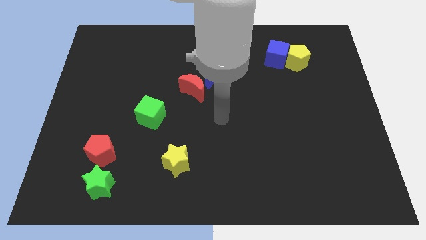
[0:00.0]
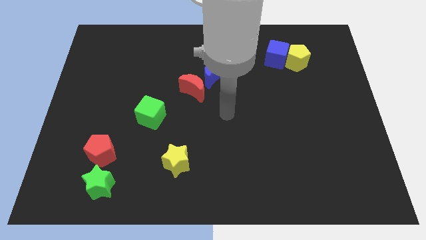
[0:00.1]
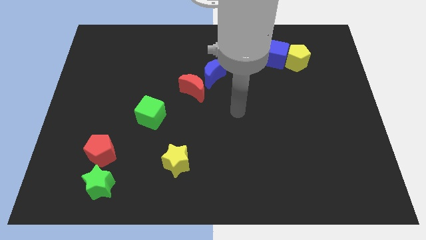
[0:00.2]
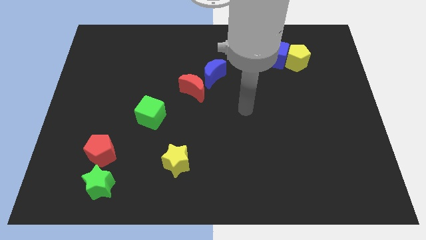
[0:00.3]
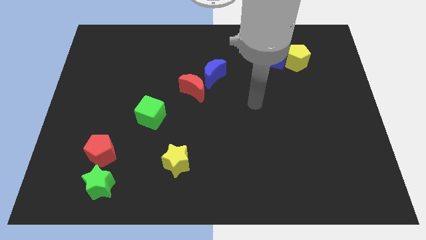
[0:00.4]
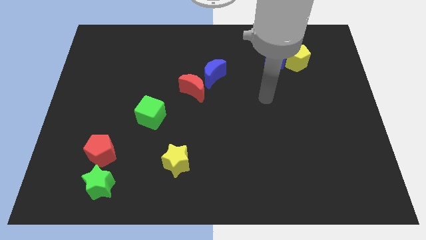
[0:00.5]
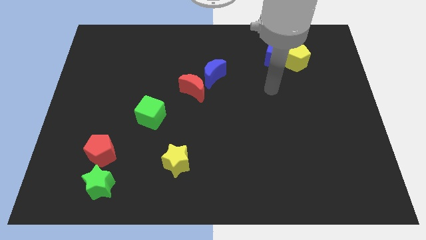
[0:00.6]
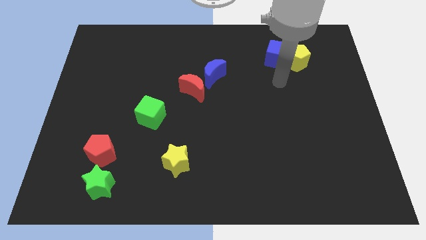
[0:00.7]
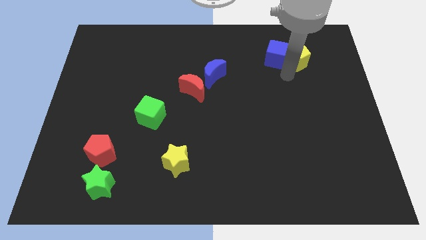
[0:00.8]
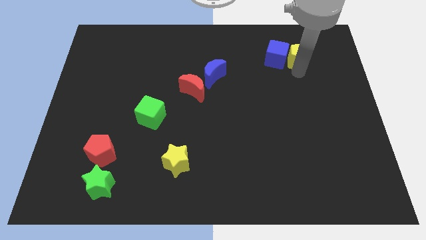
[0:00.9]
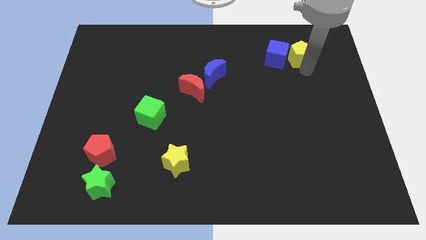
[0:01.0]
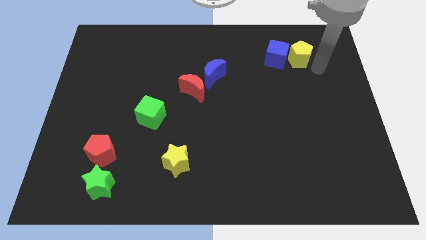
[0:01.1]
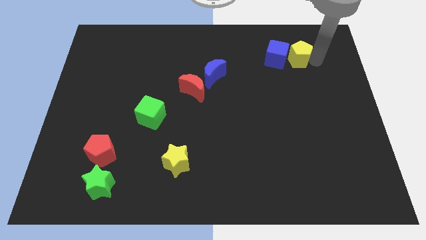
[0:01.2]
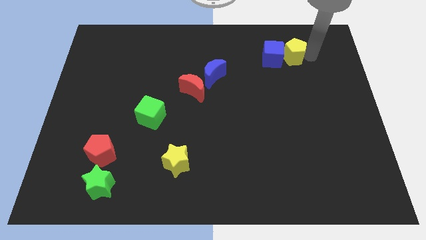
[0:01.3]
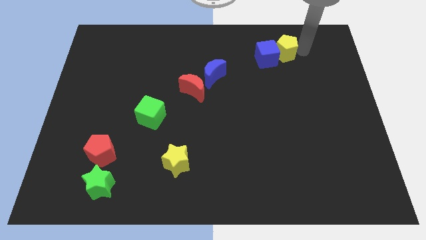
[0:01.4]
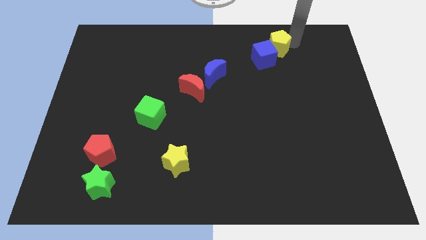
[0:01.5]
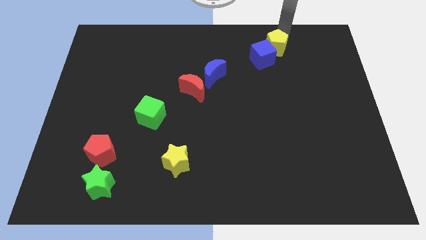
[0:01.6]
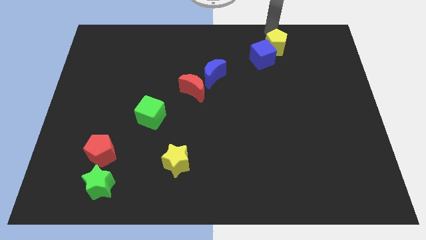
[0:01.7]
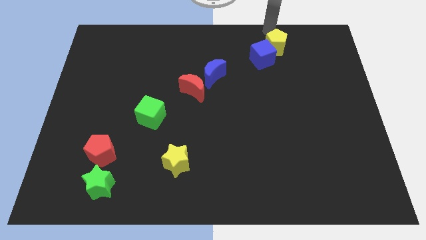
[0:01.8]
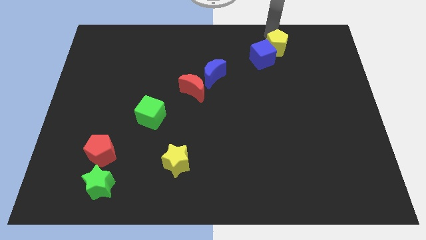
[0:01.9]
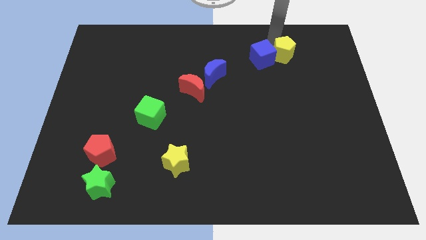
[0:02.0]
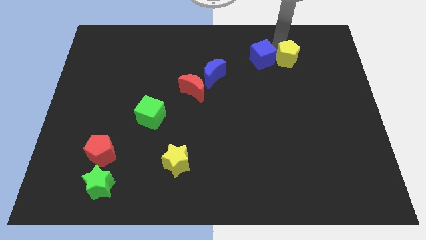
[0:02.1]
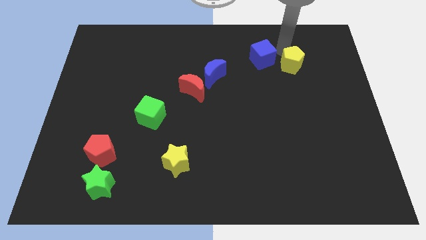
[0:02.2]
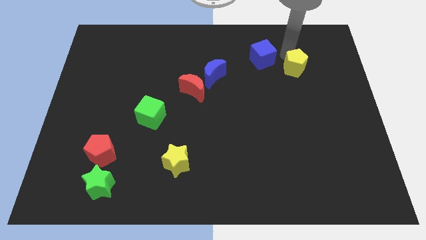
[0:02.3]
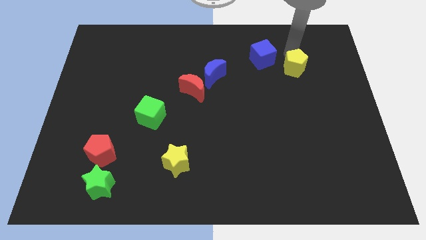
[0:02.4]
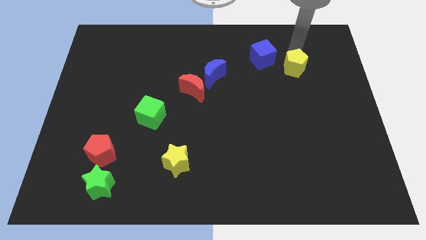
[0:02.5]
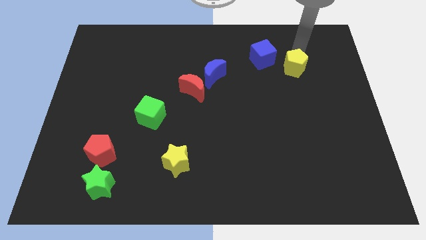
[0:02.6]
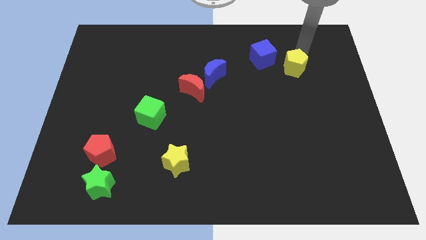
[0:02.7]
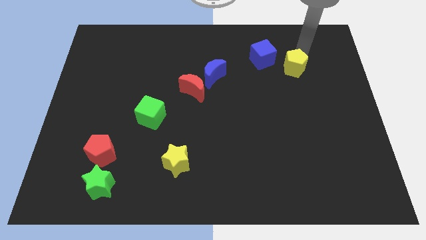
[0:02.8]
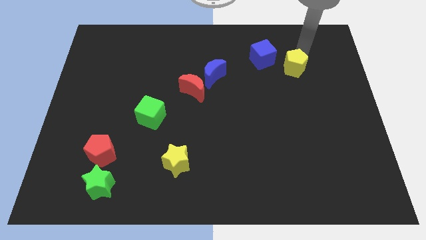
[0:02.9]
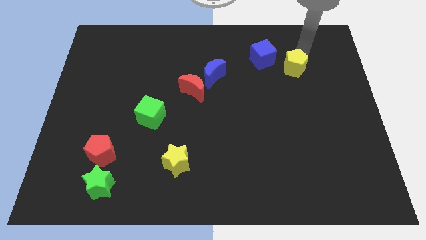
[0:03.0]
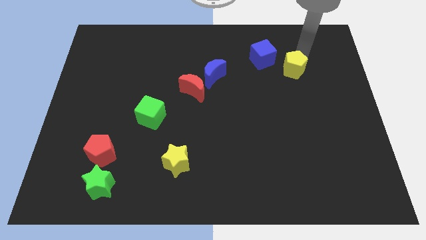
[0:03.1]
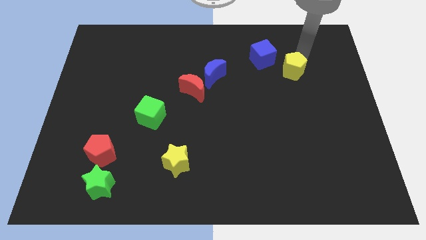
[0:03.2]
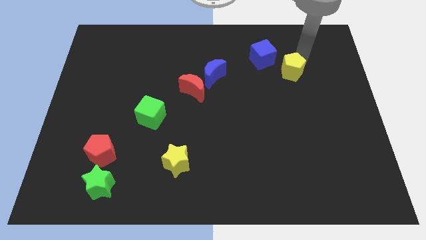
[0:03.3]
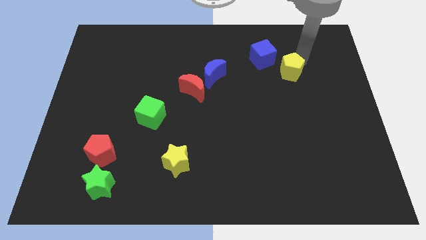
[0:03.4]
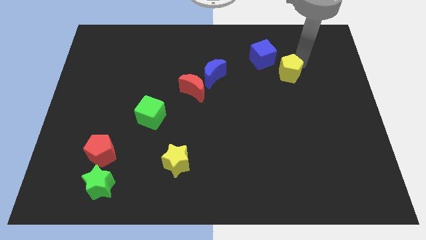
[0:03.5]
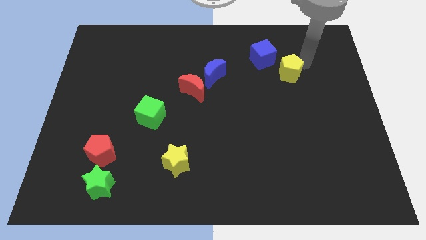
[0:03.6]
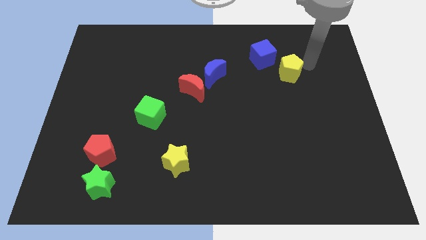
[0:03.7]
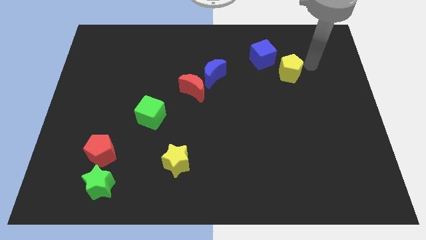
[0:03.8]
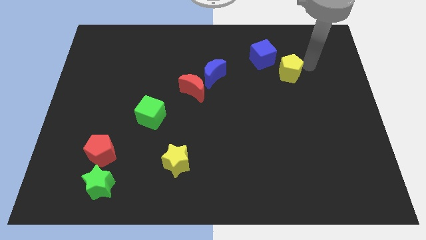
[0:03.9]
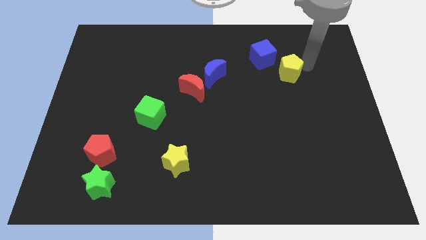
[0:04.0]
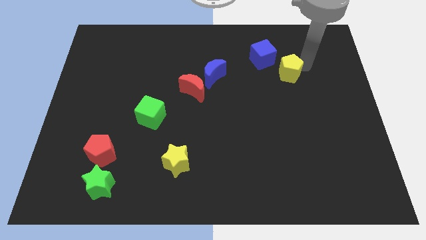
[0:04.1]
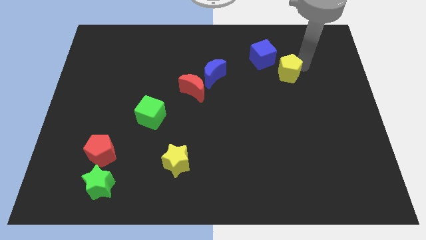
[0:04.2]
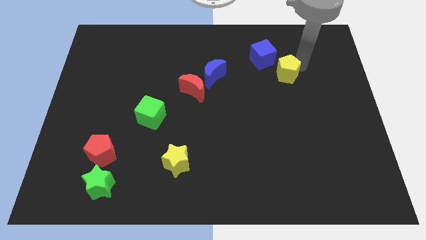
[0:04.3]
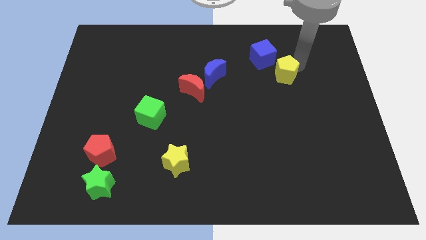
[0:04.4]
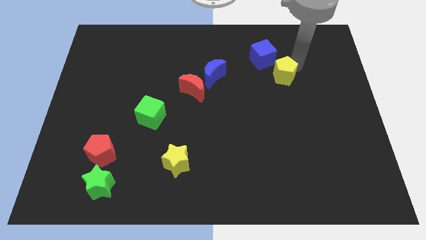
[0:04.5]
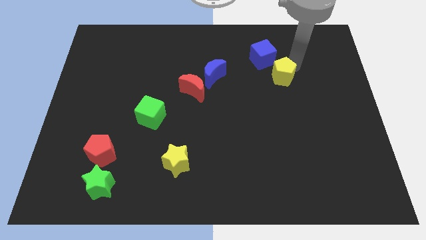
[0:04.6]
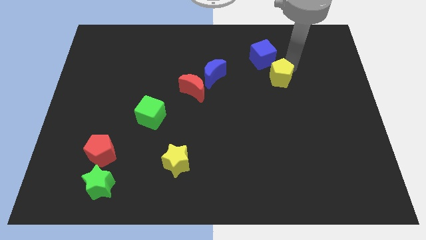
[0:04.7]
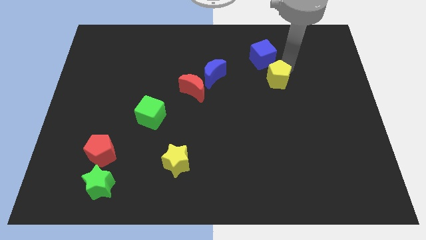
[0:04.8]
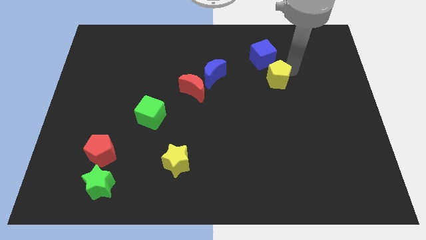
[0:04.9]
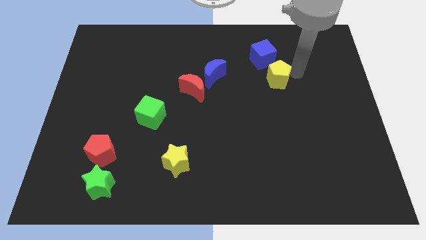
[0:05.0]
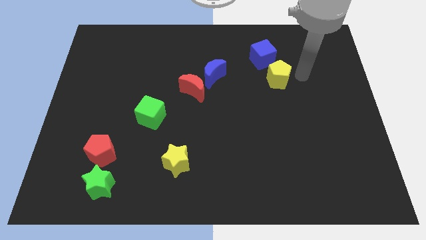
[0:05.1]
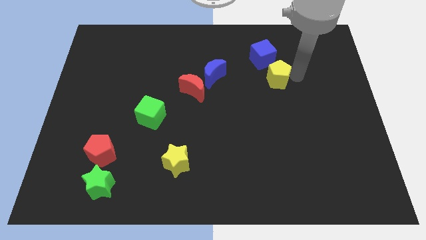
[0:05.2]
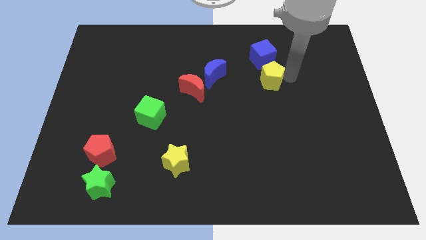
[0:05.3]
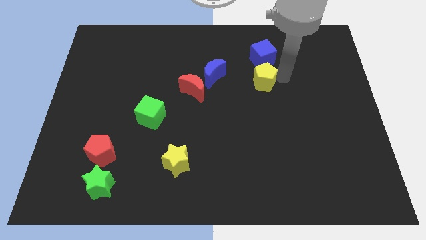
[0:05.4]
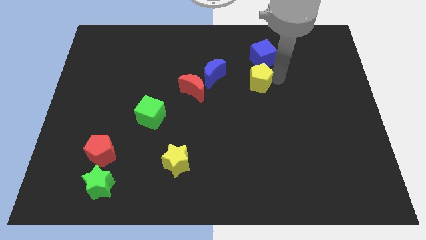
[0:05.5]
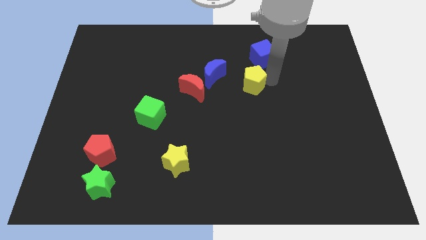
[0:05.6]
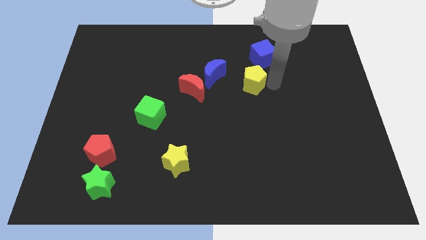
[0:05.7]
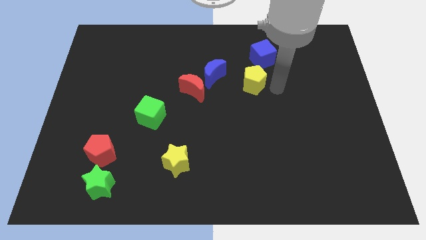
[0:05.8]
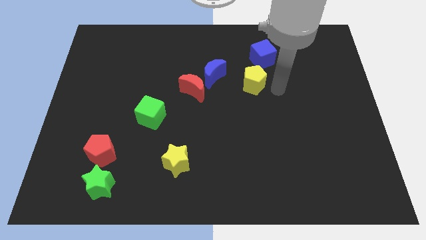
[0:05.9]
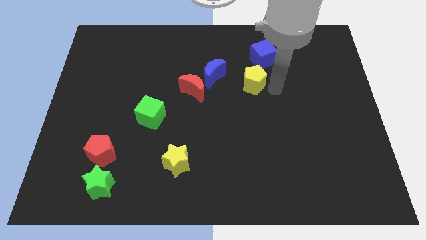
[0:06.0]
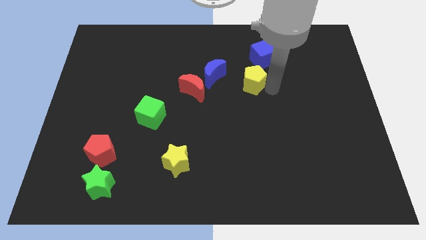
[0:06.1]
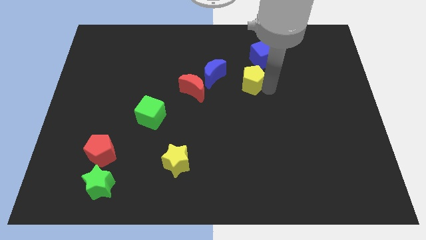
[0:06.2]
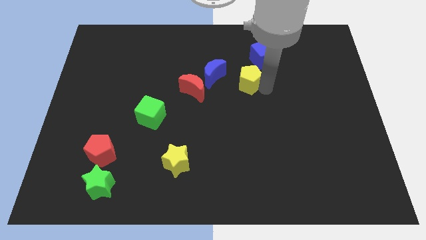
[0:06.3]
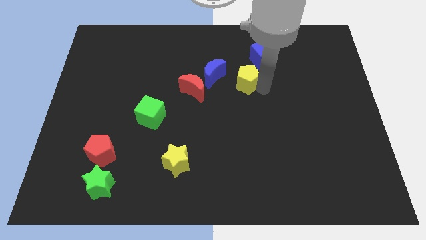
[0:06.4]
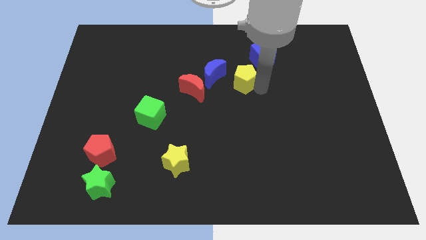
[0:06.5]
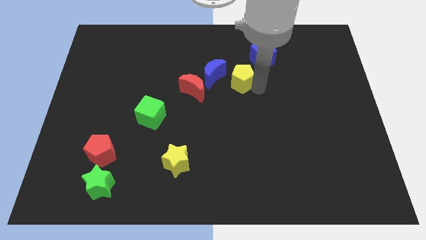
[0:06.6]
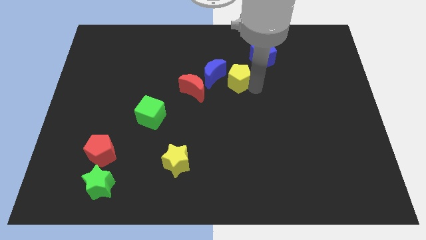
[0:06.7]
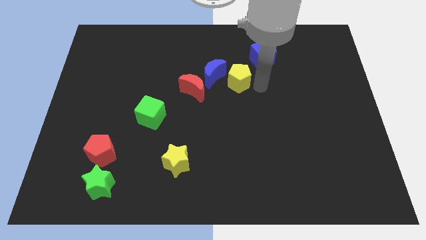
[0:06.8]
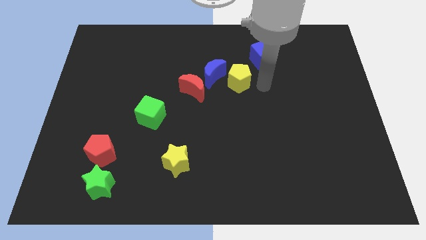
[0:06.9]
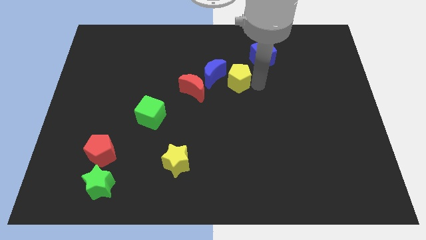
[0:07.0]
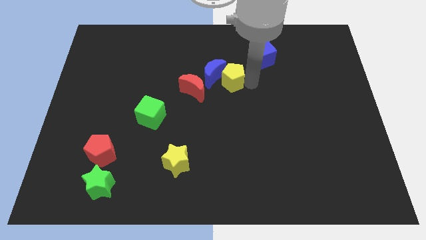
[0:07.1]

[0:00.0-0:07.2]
move the yellow pentagon close to the blue moon

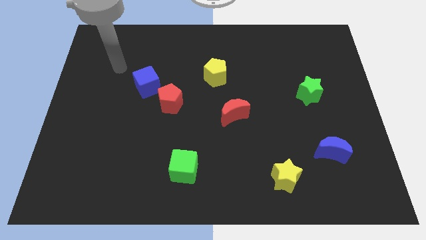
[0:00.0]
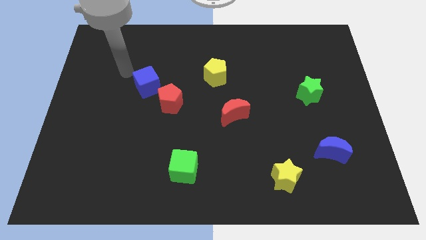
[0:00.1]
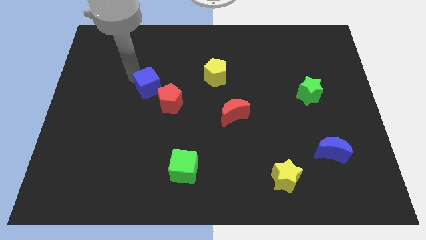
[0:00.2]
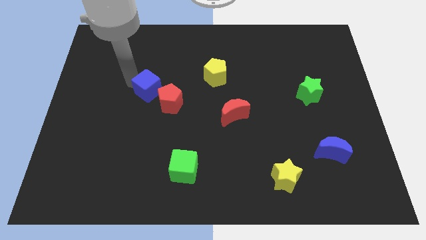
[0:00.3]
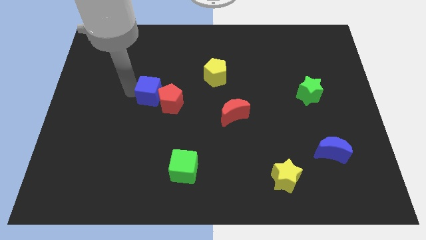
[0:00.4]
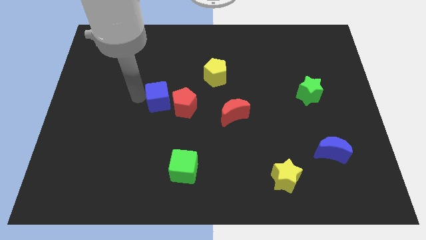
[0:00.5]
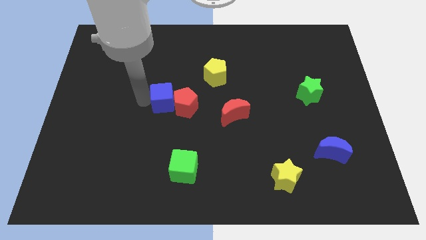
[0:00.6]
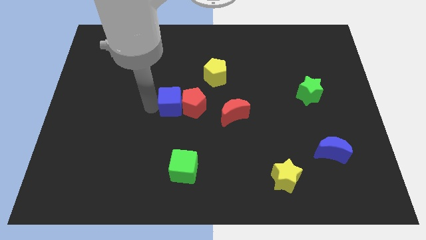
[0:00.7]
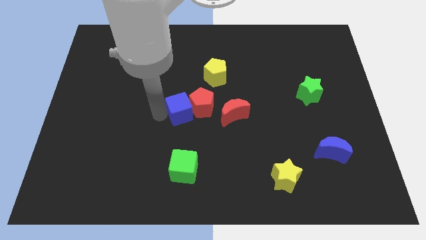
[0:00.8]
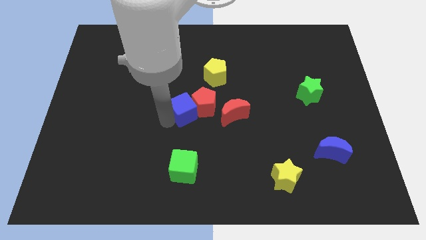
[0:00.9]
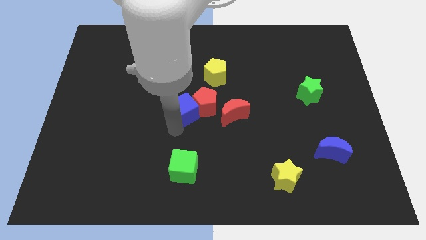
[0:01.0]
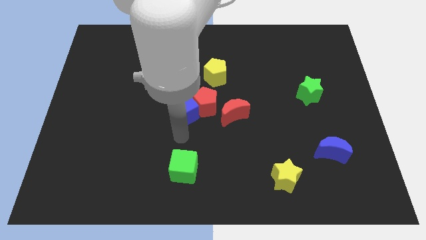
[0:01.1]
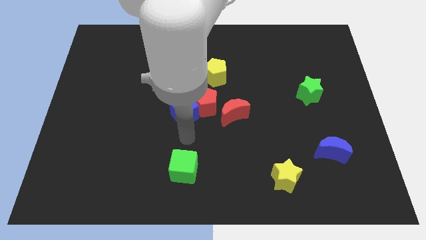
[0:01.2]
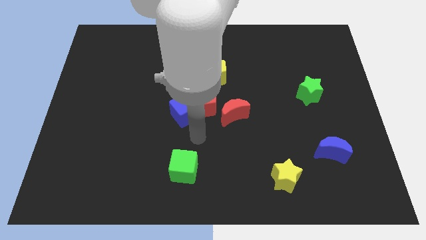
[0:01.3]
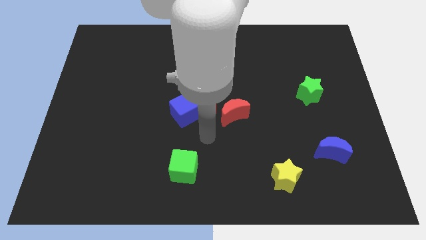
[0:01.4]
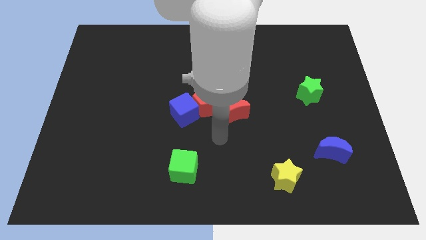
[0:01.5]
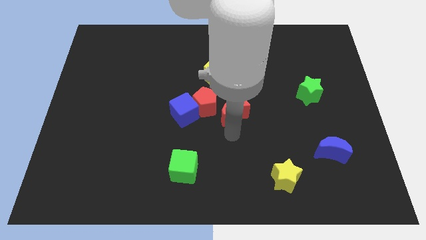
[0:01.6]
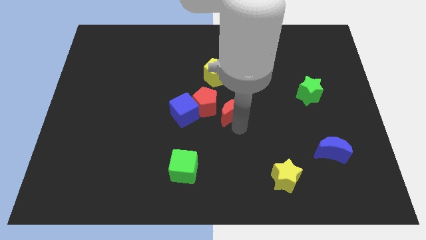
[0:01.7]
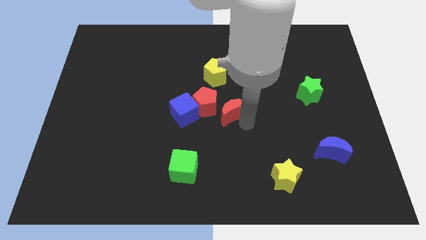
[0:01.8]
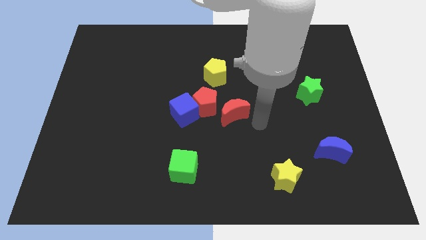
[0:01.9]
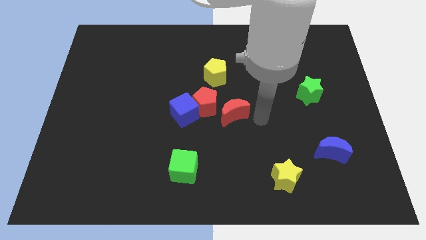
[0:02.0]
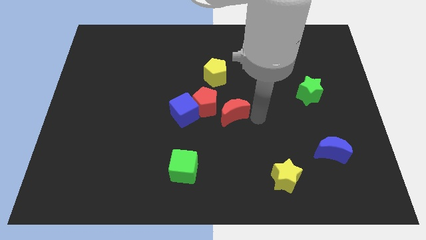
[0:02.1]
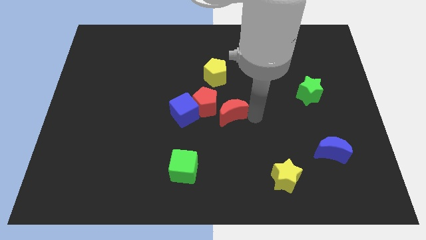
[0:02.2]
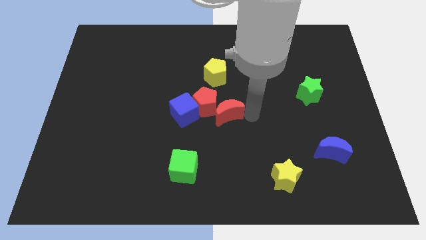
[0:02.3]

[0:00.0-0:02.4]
slide the red moon close to the red pentagon
